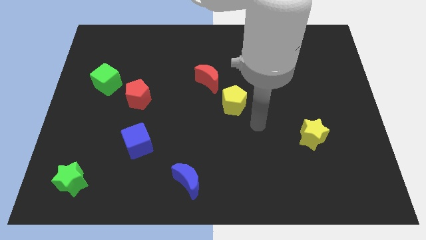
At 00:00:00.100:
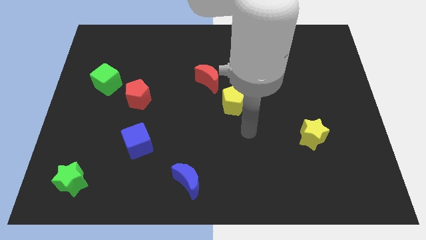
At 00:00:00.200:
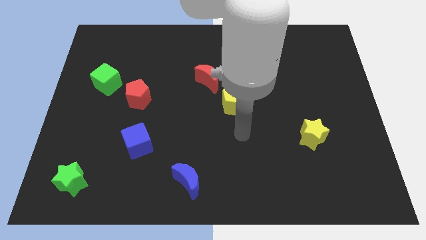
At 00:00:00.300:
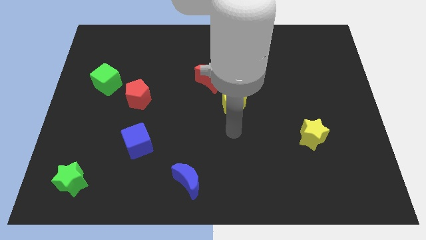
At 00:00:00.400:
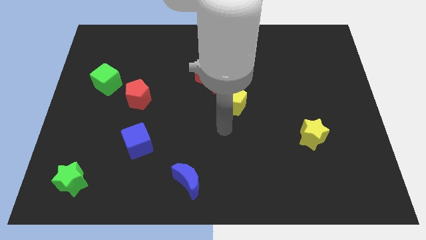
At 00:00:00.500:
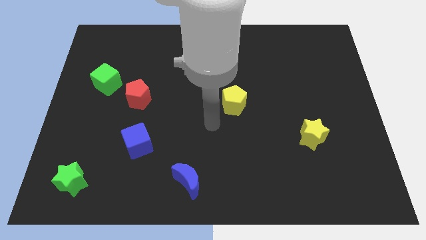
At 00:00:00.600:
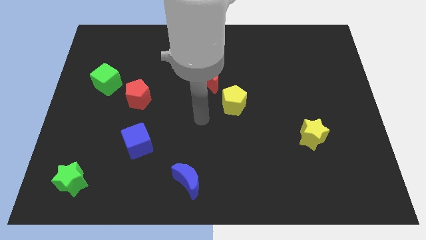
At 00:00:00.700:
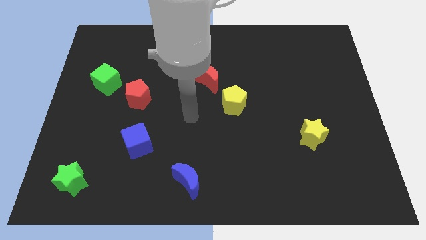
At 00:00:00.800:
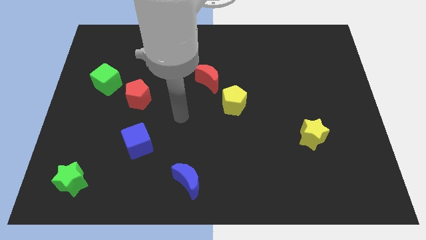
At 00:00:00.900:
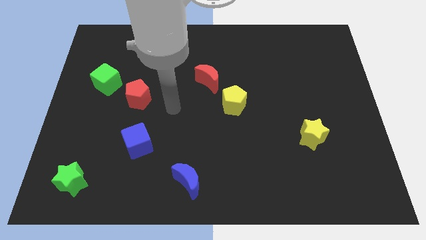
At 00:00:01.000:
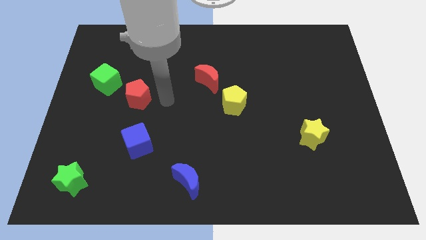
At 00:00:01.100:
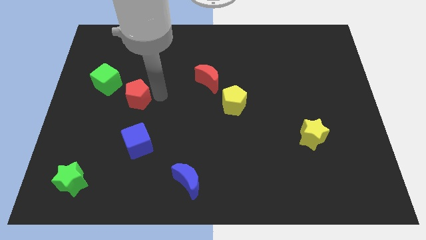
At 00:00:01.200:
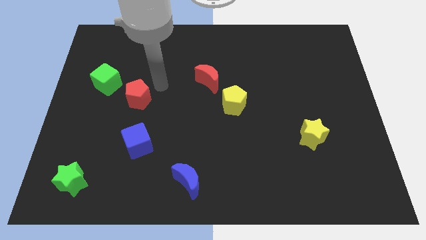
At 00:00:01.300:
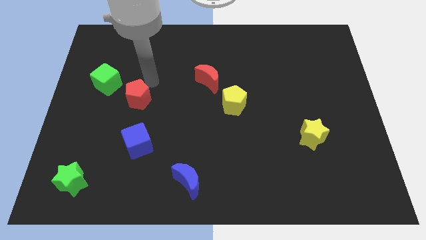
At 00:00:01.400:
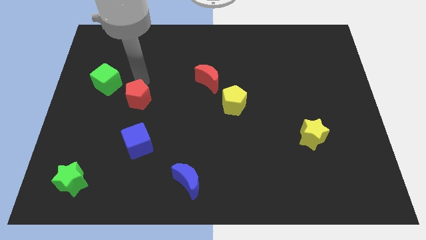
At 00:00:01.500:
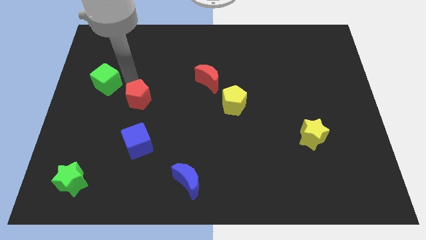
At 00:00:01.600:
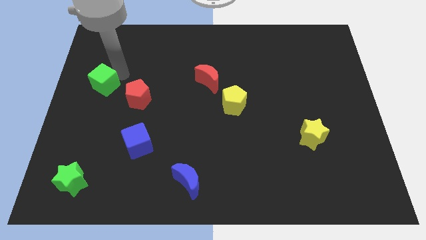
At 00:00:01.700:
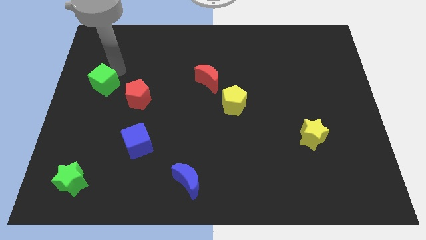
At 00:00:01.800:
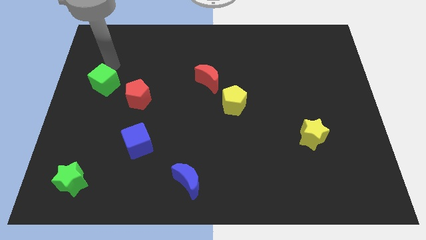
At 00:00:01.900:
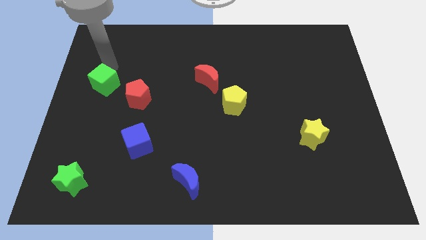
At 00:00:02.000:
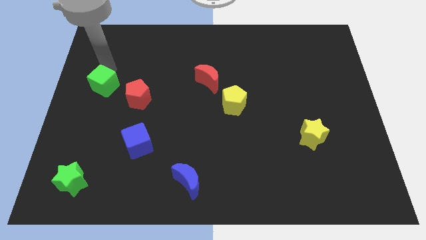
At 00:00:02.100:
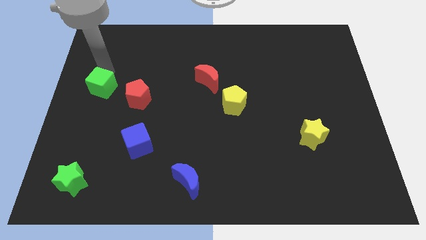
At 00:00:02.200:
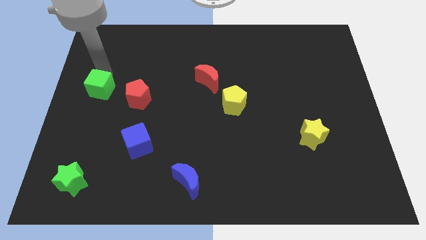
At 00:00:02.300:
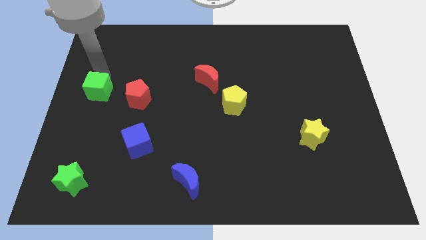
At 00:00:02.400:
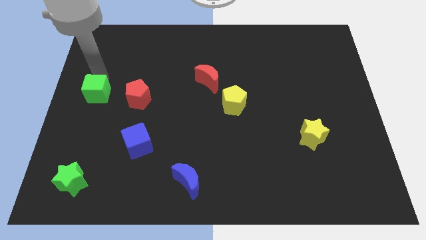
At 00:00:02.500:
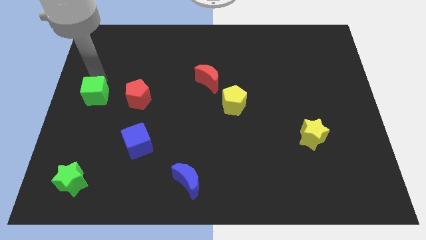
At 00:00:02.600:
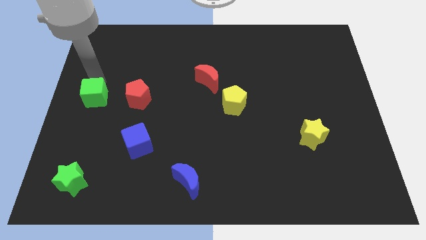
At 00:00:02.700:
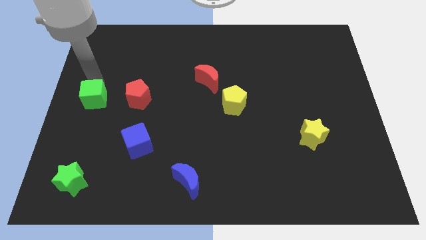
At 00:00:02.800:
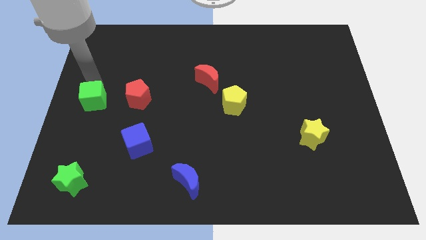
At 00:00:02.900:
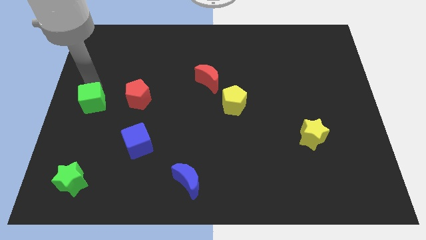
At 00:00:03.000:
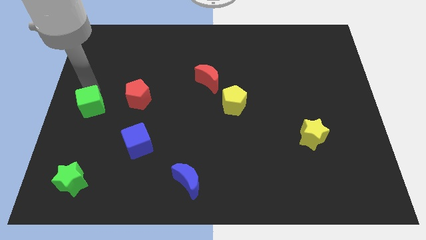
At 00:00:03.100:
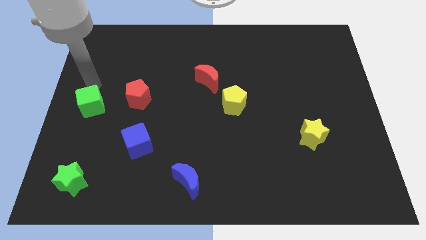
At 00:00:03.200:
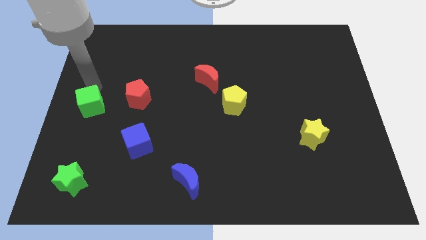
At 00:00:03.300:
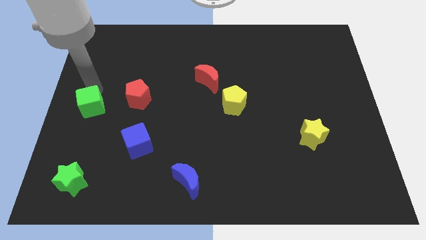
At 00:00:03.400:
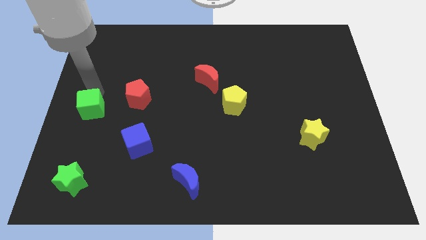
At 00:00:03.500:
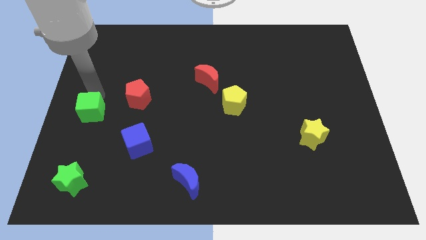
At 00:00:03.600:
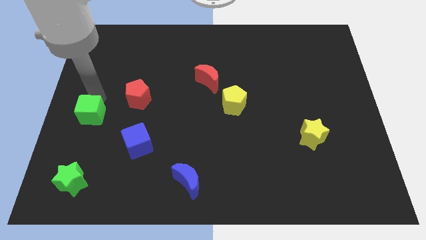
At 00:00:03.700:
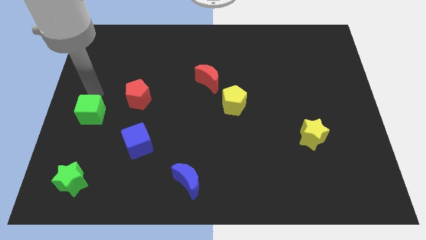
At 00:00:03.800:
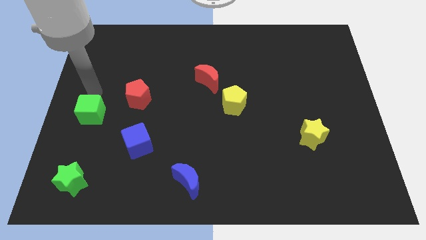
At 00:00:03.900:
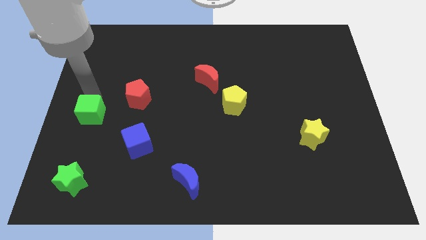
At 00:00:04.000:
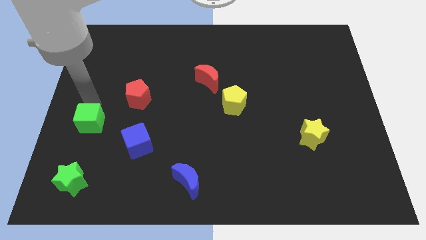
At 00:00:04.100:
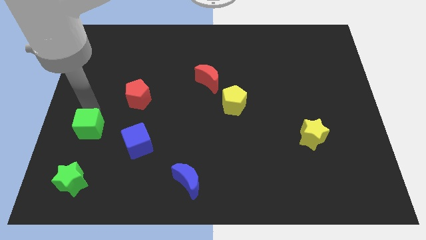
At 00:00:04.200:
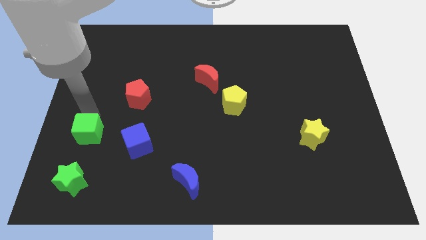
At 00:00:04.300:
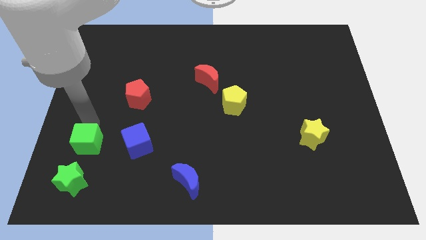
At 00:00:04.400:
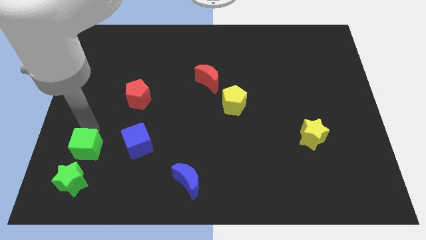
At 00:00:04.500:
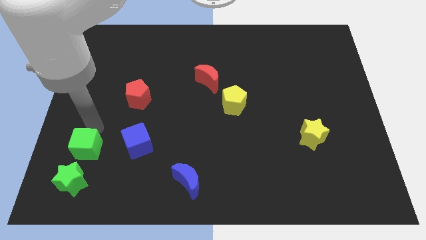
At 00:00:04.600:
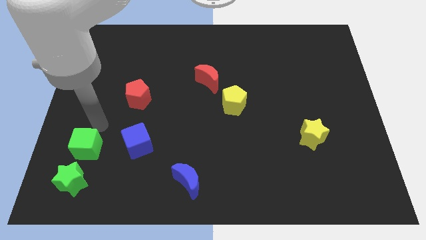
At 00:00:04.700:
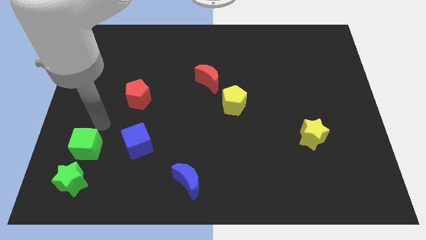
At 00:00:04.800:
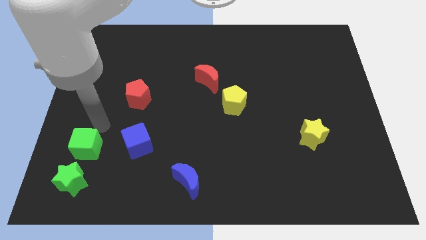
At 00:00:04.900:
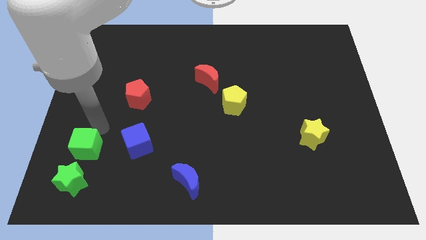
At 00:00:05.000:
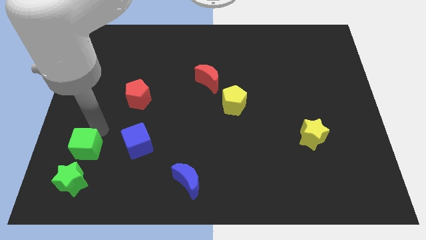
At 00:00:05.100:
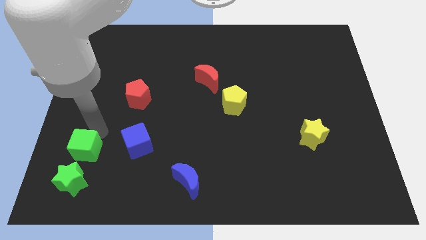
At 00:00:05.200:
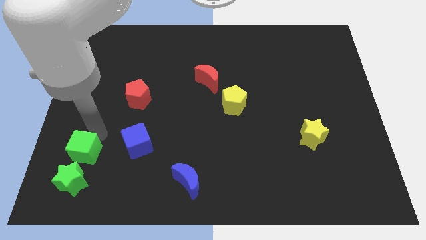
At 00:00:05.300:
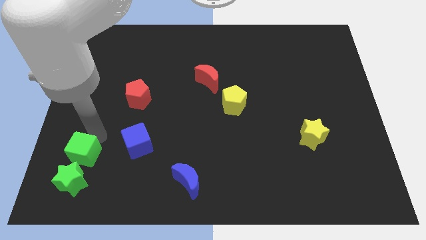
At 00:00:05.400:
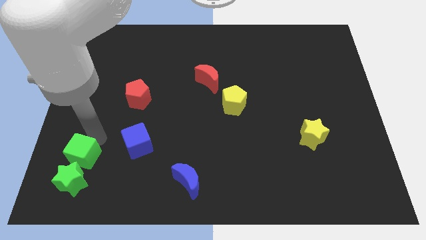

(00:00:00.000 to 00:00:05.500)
put the green cube next to the green star

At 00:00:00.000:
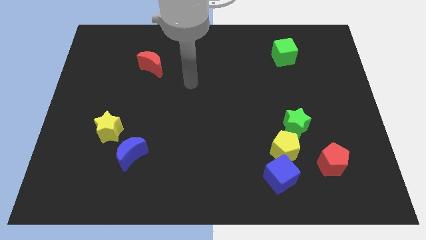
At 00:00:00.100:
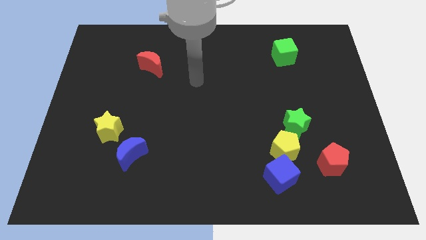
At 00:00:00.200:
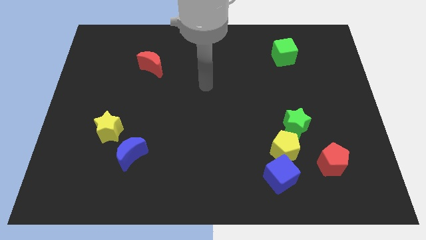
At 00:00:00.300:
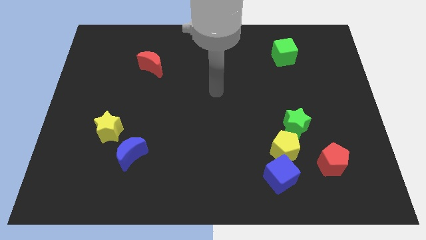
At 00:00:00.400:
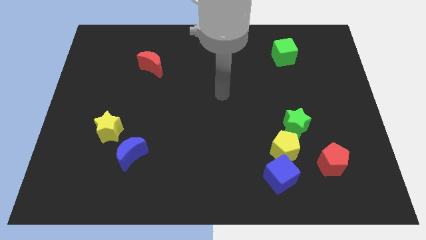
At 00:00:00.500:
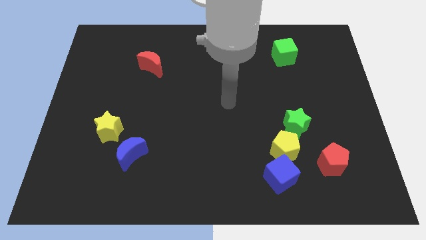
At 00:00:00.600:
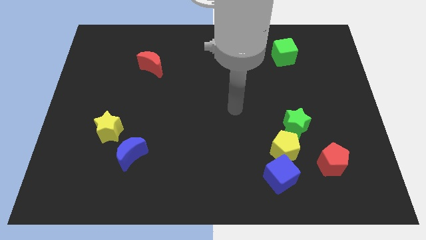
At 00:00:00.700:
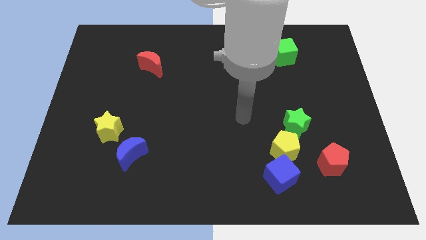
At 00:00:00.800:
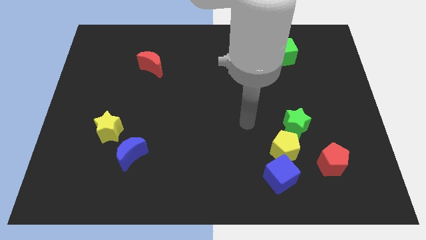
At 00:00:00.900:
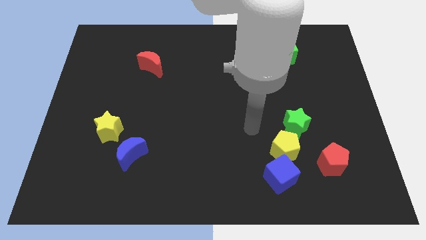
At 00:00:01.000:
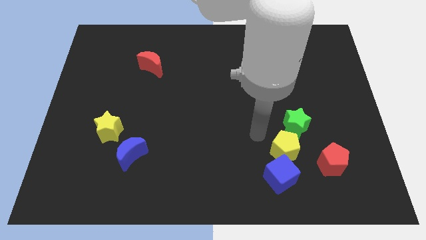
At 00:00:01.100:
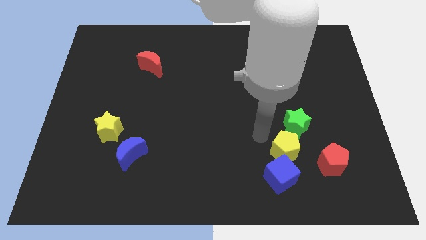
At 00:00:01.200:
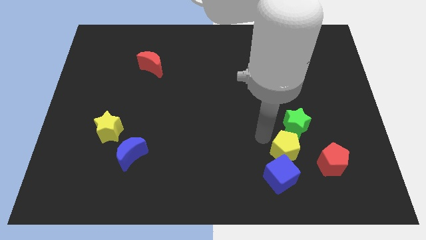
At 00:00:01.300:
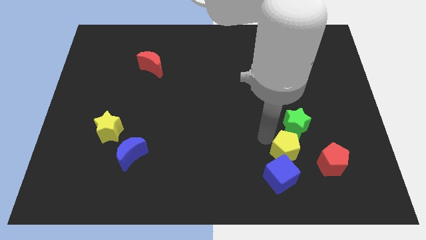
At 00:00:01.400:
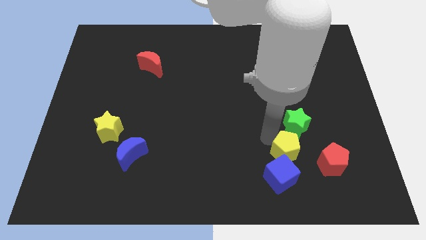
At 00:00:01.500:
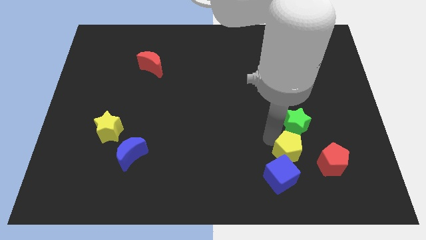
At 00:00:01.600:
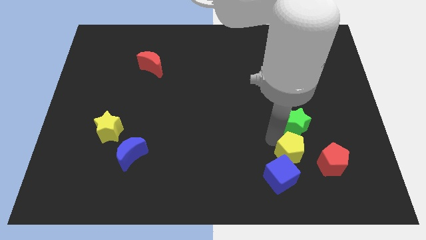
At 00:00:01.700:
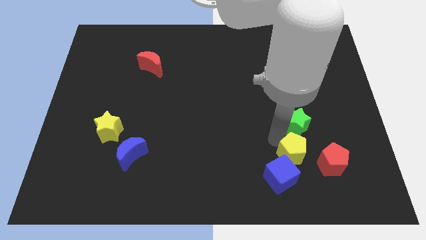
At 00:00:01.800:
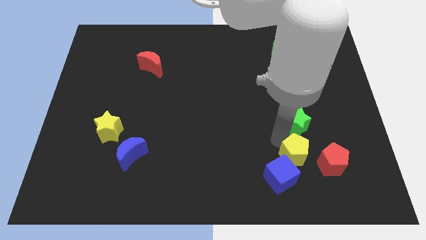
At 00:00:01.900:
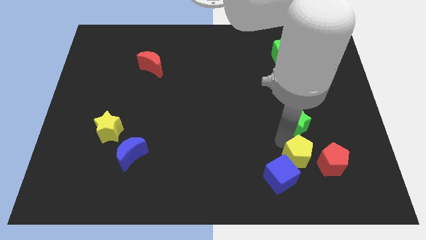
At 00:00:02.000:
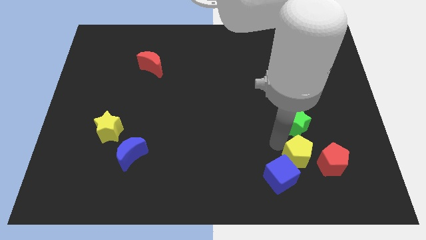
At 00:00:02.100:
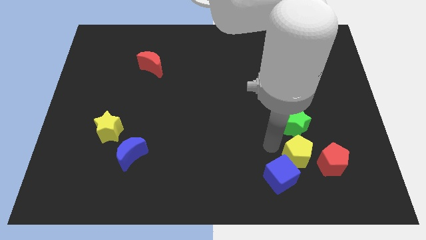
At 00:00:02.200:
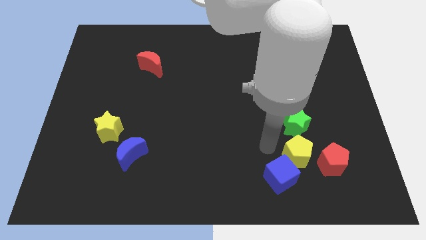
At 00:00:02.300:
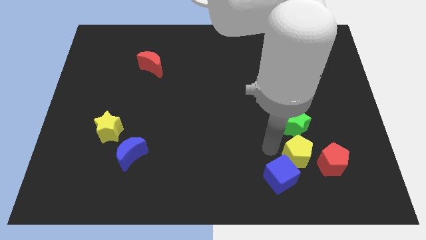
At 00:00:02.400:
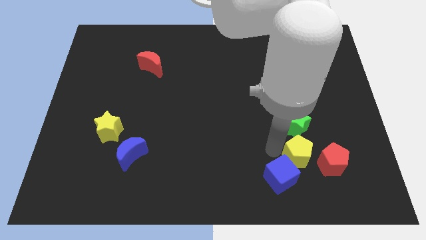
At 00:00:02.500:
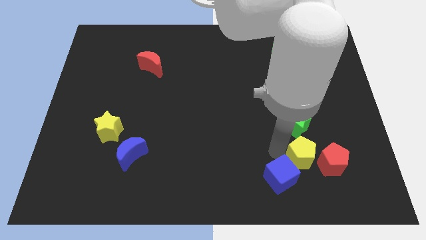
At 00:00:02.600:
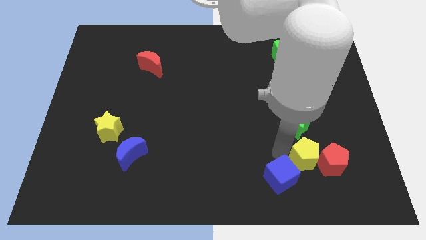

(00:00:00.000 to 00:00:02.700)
push the yellow pentagon close to the red pentagon
